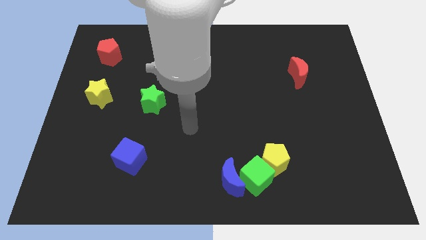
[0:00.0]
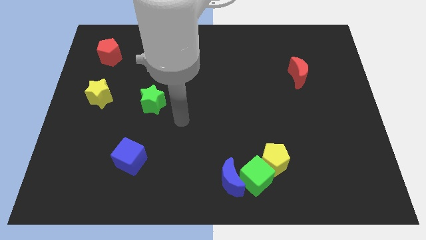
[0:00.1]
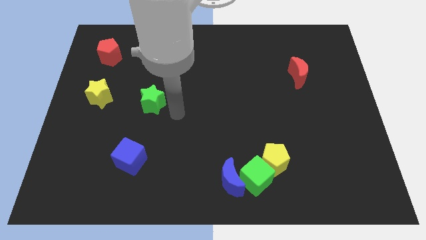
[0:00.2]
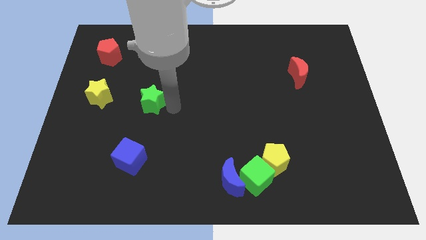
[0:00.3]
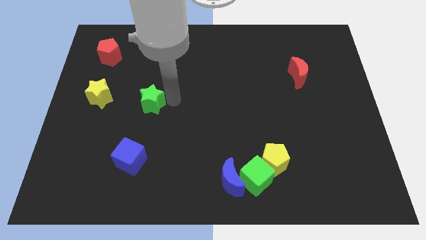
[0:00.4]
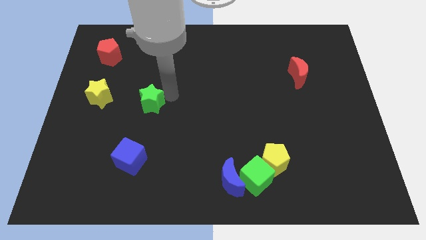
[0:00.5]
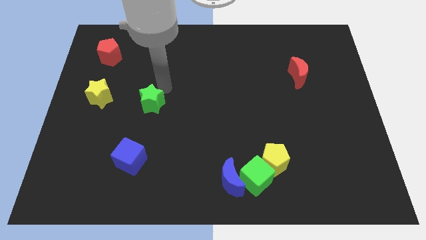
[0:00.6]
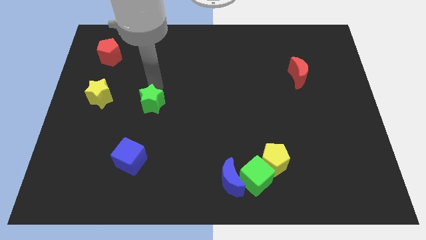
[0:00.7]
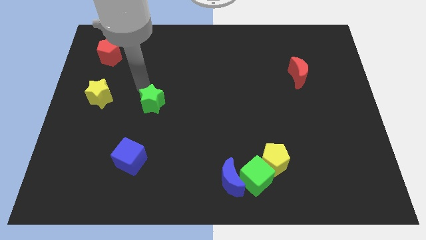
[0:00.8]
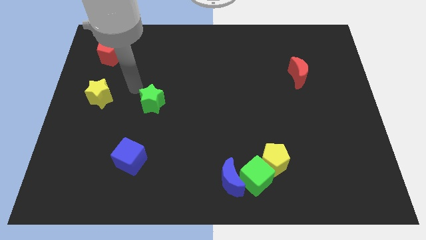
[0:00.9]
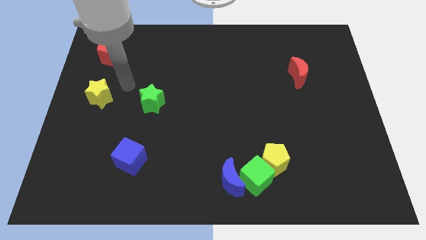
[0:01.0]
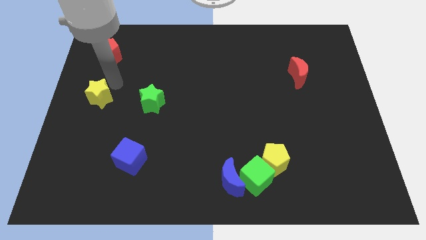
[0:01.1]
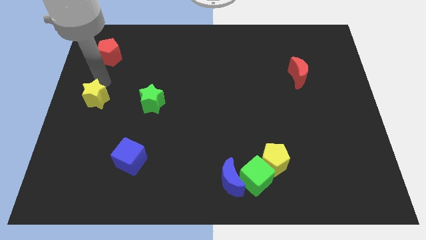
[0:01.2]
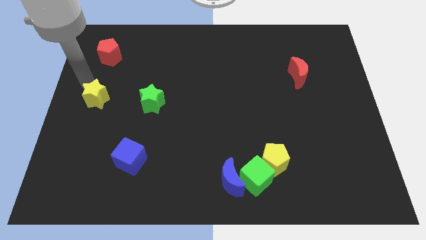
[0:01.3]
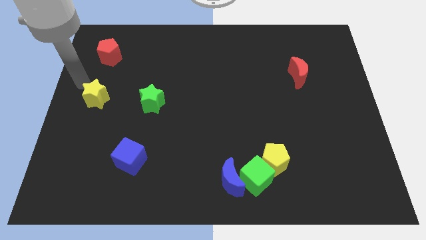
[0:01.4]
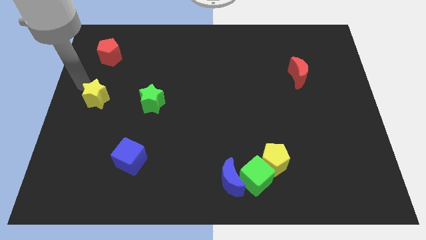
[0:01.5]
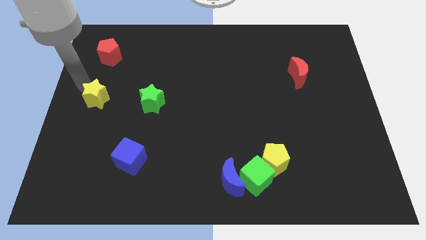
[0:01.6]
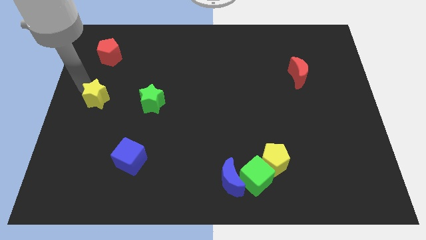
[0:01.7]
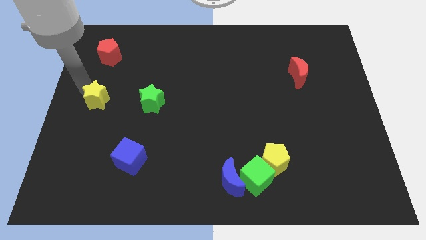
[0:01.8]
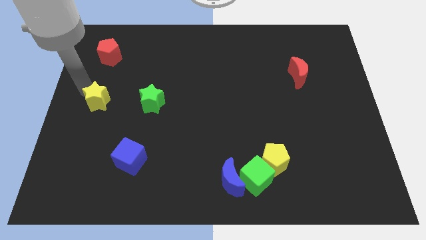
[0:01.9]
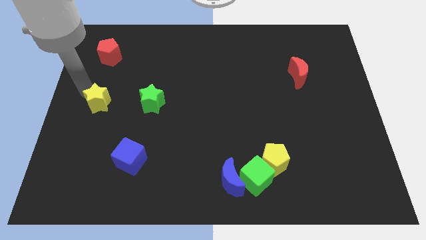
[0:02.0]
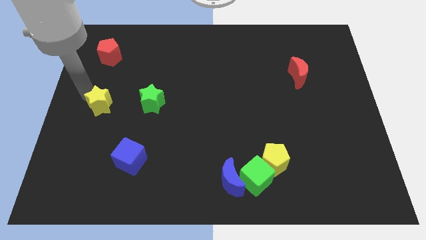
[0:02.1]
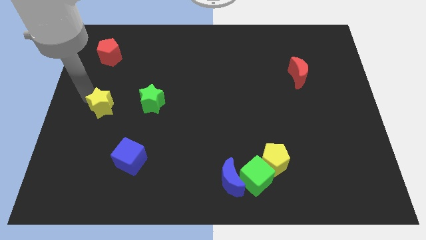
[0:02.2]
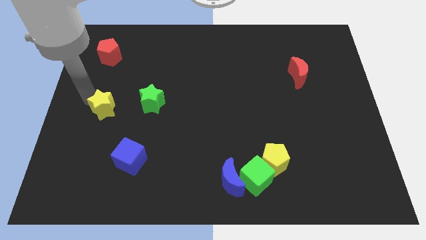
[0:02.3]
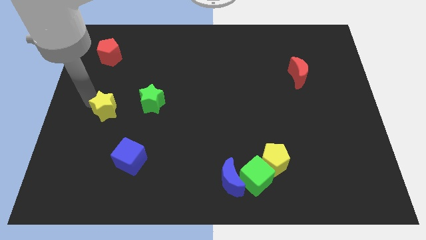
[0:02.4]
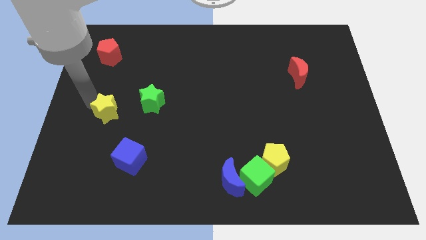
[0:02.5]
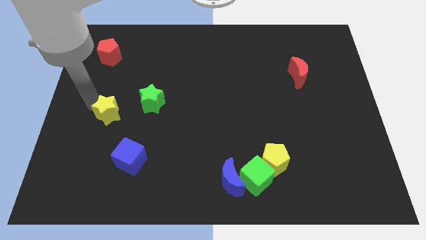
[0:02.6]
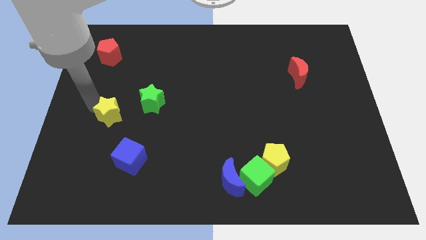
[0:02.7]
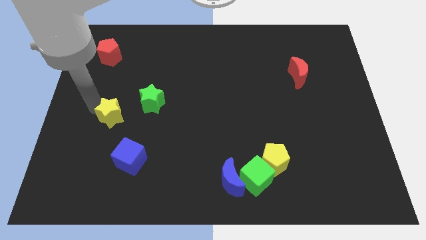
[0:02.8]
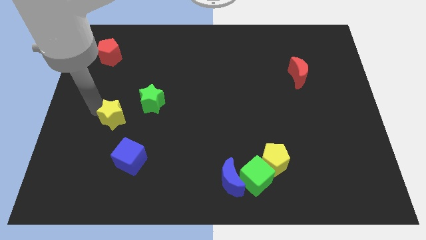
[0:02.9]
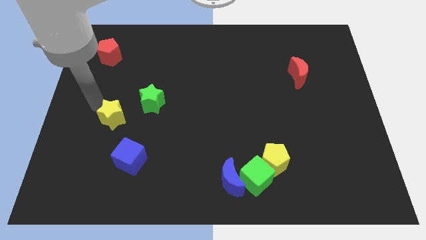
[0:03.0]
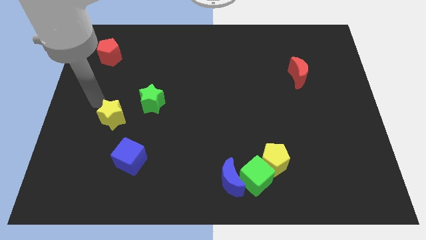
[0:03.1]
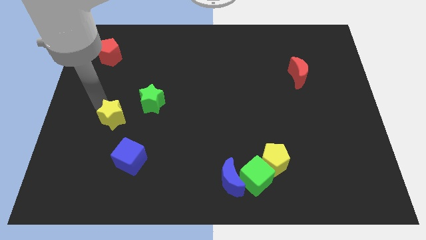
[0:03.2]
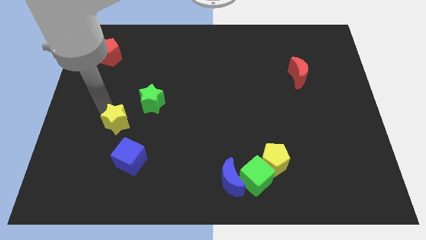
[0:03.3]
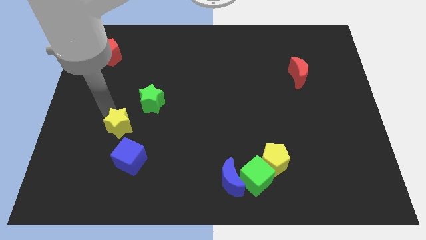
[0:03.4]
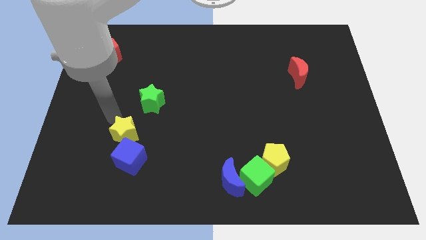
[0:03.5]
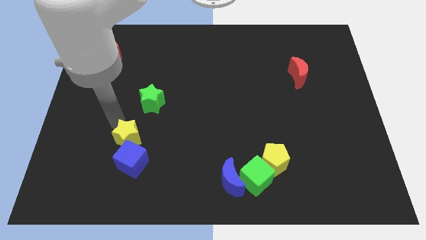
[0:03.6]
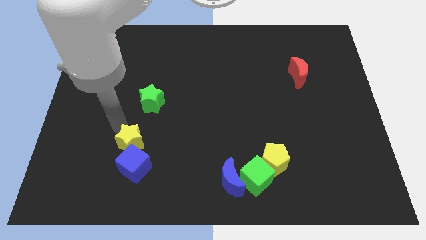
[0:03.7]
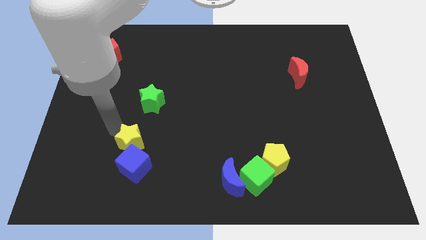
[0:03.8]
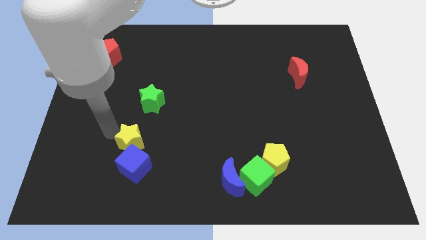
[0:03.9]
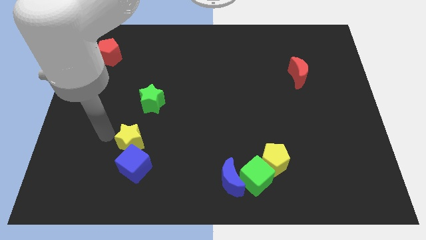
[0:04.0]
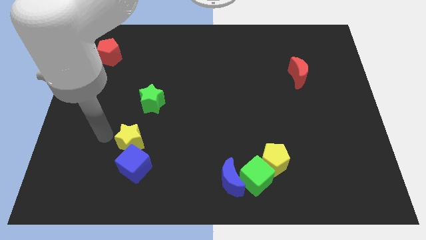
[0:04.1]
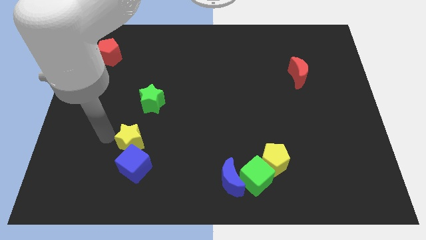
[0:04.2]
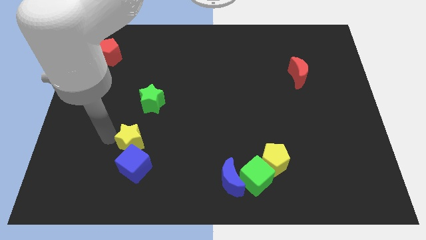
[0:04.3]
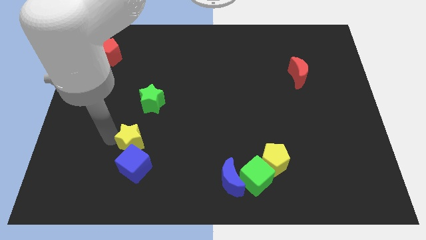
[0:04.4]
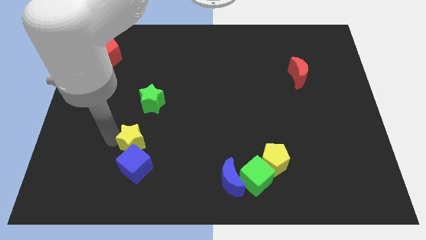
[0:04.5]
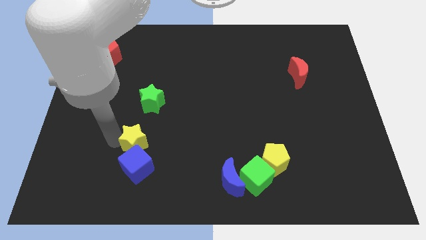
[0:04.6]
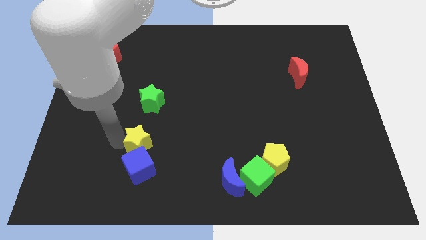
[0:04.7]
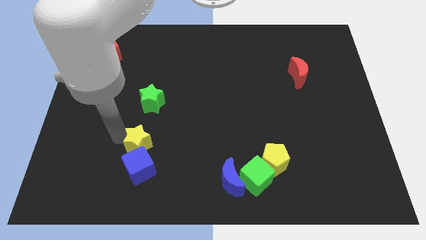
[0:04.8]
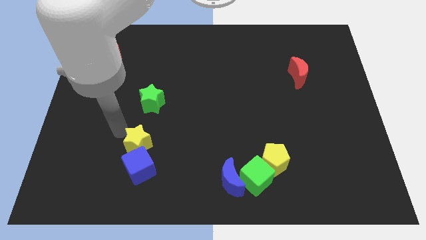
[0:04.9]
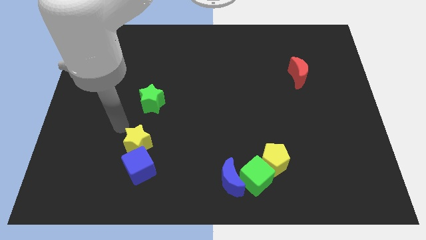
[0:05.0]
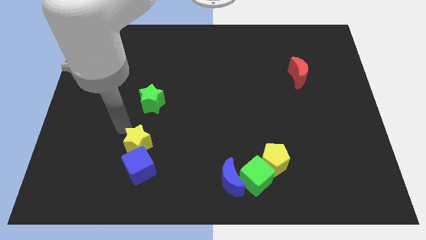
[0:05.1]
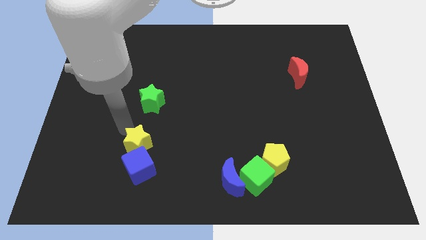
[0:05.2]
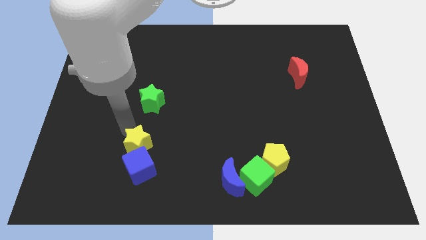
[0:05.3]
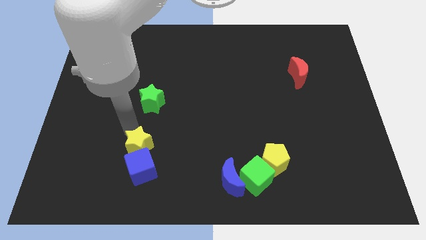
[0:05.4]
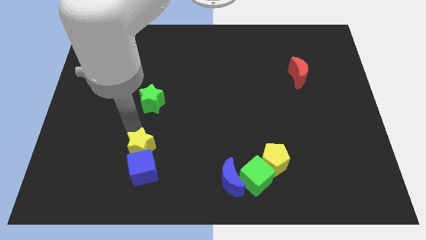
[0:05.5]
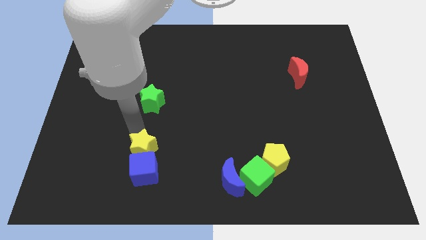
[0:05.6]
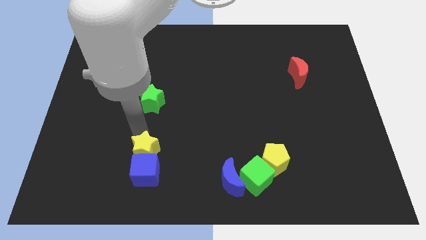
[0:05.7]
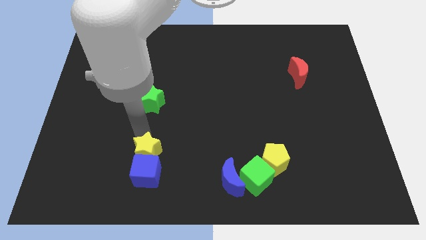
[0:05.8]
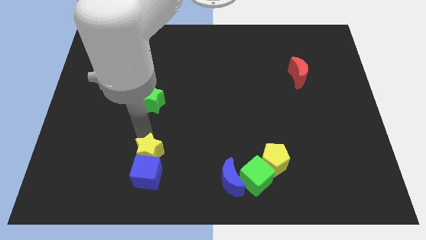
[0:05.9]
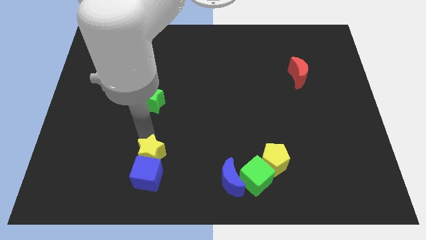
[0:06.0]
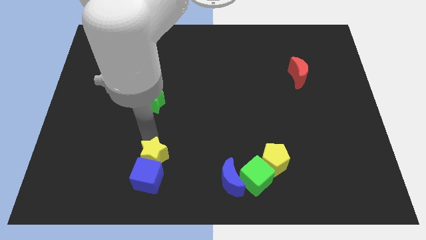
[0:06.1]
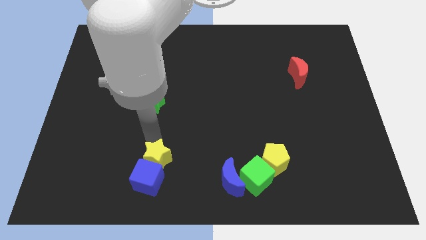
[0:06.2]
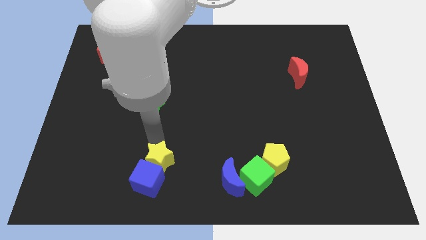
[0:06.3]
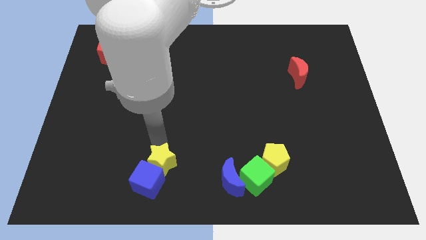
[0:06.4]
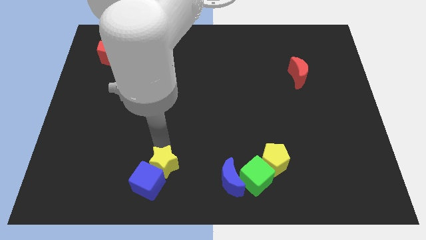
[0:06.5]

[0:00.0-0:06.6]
push the yellow star to the left side of the blue moon
